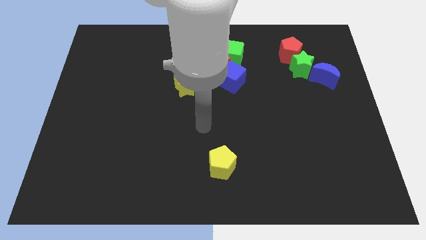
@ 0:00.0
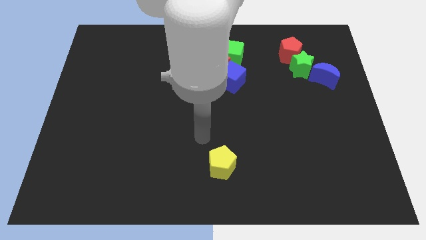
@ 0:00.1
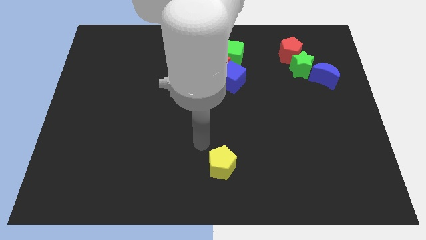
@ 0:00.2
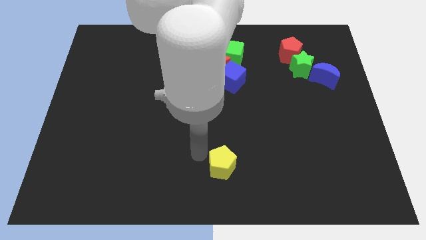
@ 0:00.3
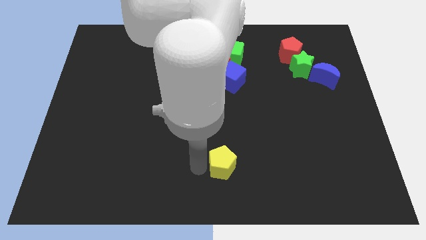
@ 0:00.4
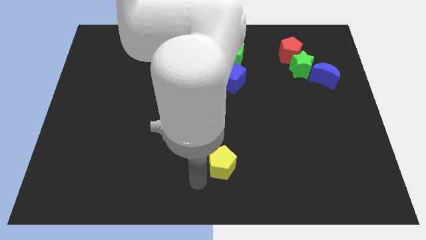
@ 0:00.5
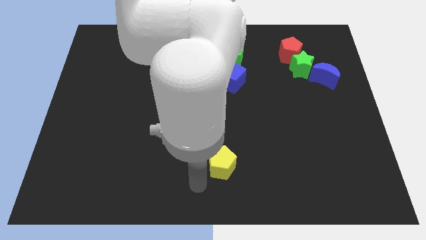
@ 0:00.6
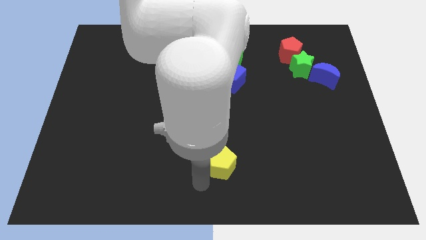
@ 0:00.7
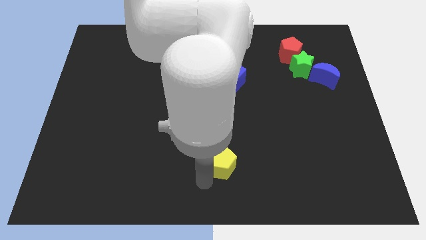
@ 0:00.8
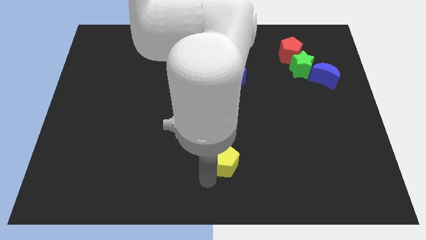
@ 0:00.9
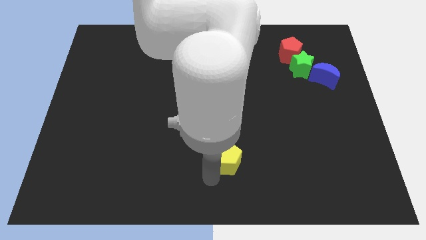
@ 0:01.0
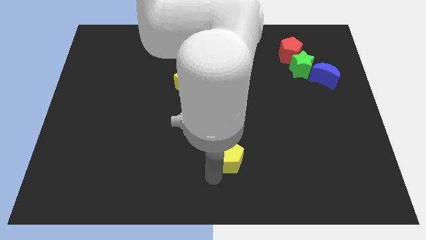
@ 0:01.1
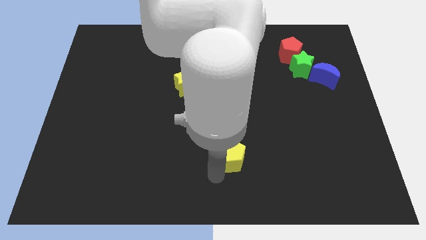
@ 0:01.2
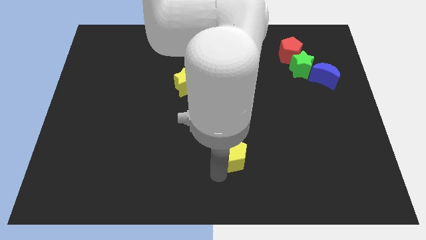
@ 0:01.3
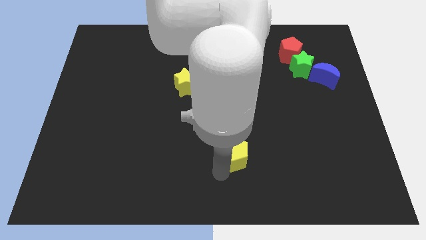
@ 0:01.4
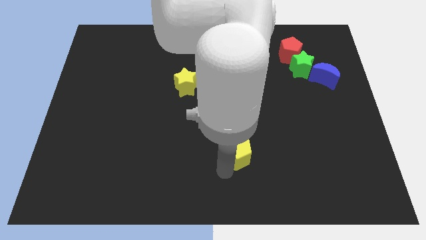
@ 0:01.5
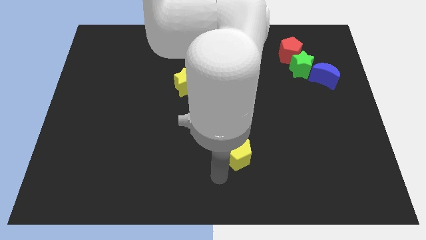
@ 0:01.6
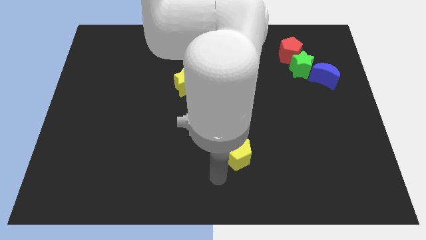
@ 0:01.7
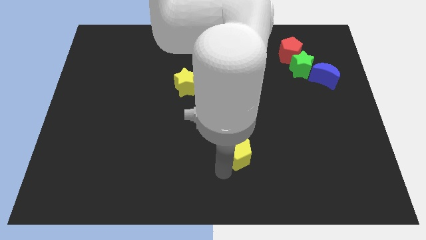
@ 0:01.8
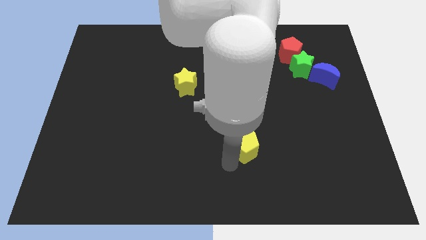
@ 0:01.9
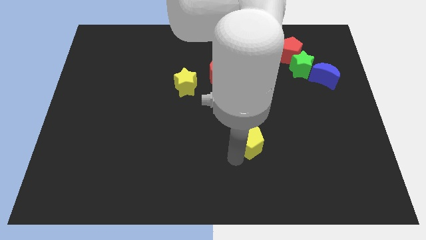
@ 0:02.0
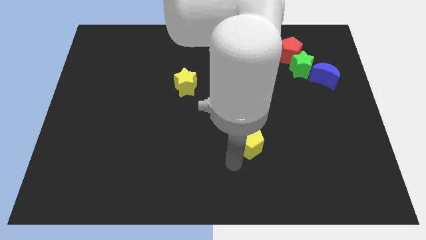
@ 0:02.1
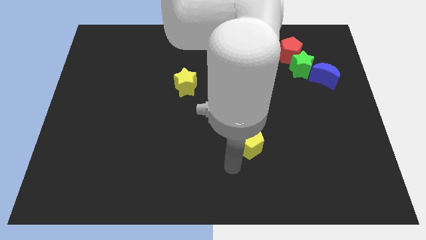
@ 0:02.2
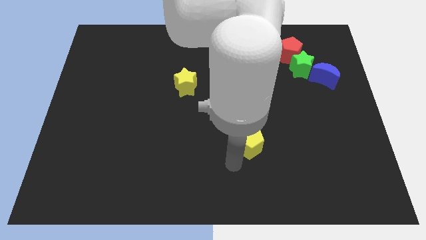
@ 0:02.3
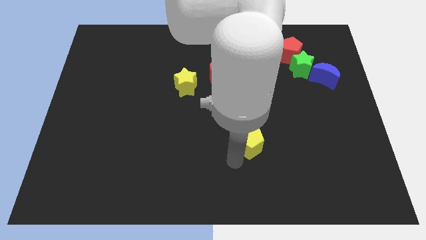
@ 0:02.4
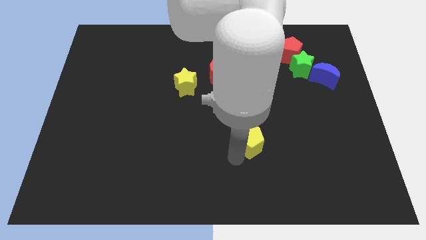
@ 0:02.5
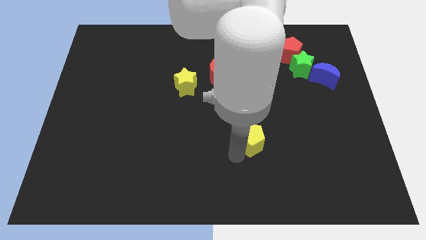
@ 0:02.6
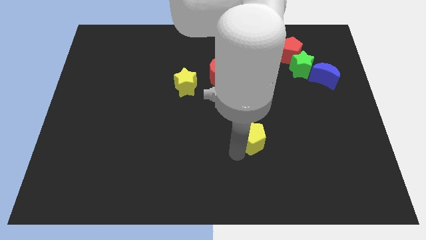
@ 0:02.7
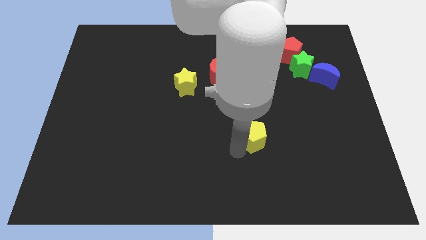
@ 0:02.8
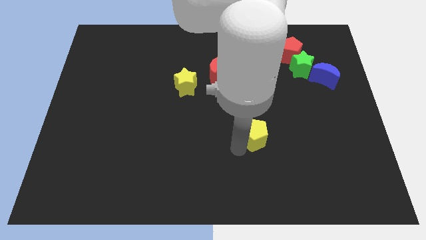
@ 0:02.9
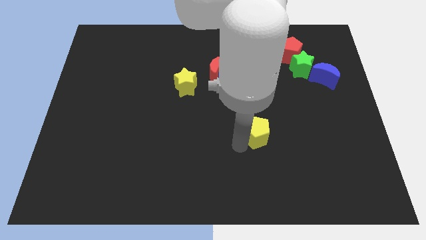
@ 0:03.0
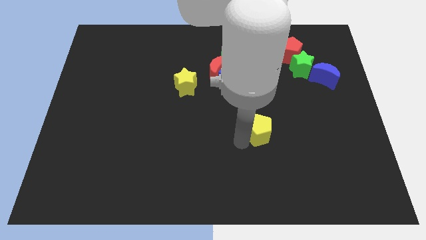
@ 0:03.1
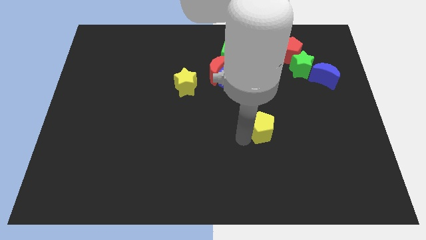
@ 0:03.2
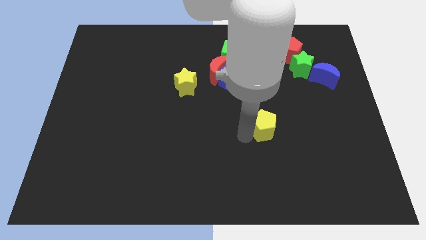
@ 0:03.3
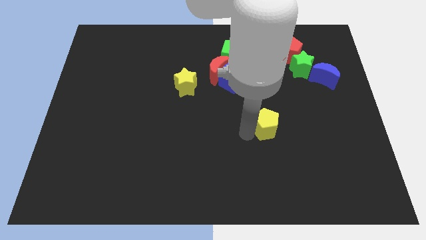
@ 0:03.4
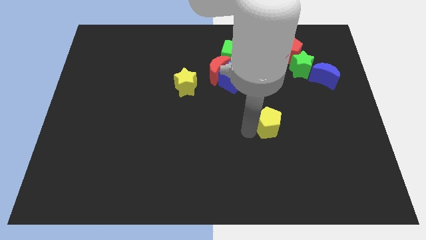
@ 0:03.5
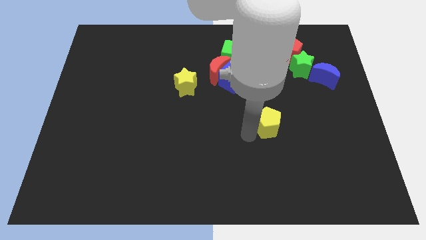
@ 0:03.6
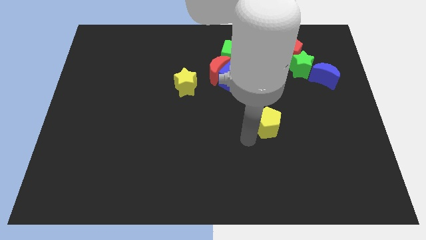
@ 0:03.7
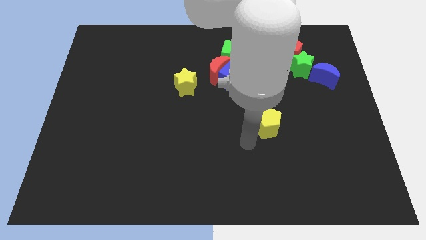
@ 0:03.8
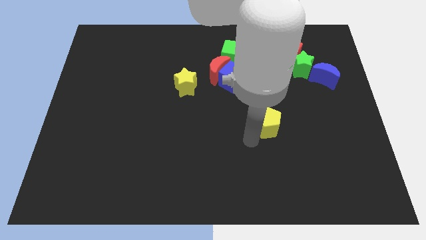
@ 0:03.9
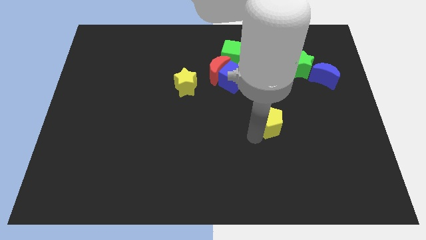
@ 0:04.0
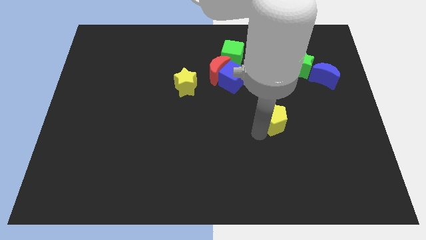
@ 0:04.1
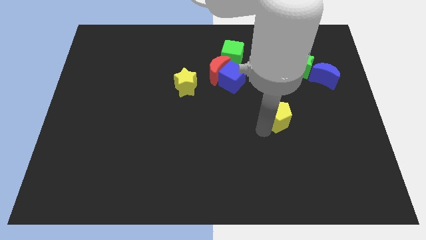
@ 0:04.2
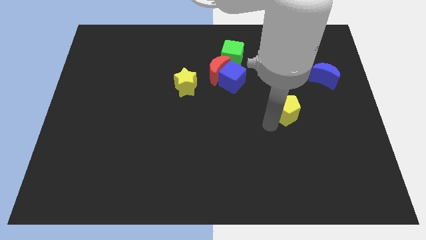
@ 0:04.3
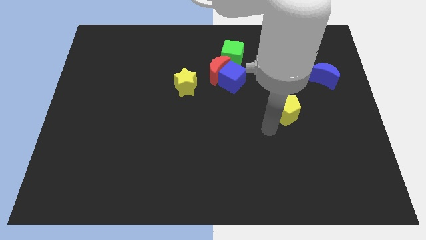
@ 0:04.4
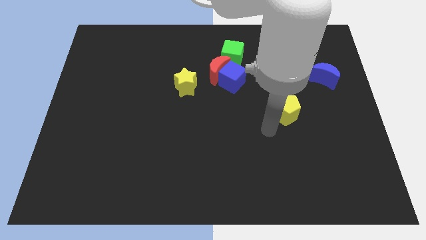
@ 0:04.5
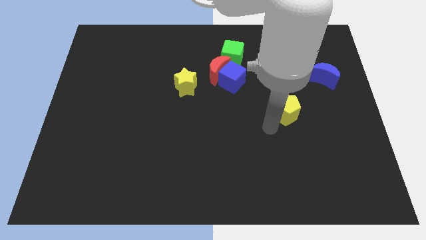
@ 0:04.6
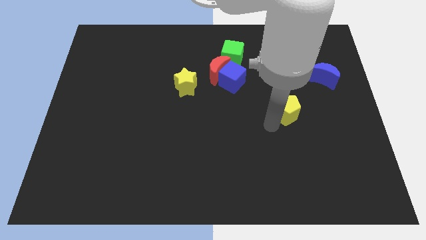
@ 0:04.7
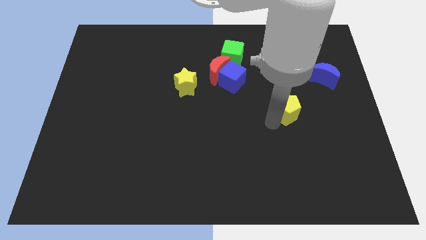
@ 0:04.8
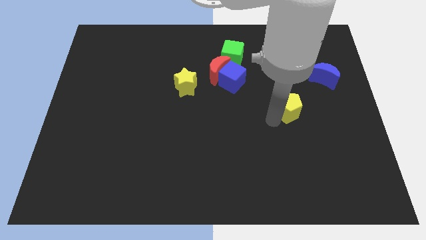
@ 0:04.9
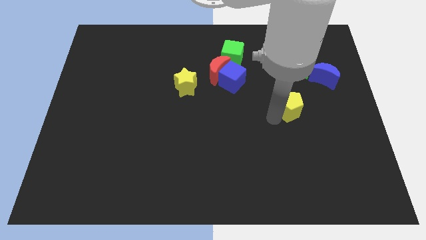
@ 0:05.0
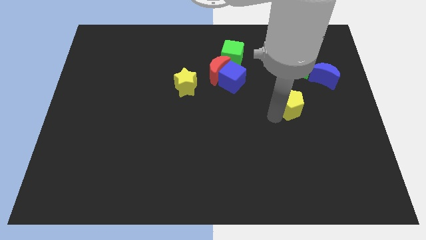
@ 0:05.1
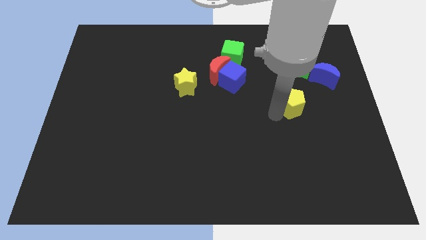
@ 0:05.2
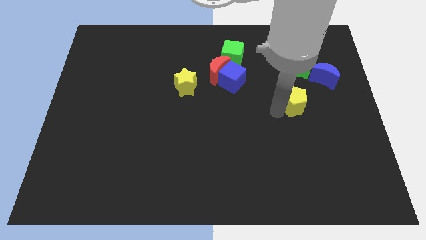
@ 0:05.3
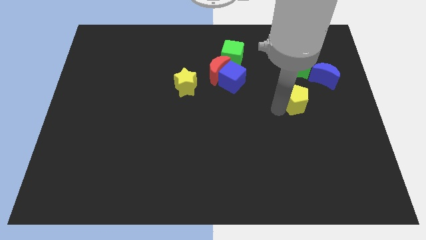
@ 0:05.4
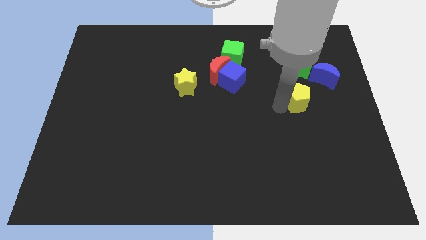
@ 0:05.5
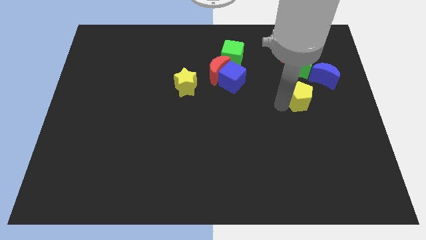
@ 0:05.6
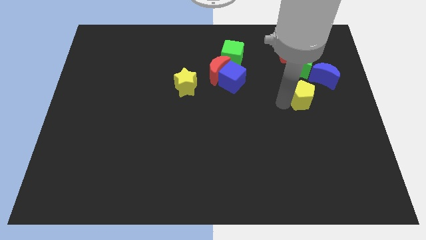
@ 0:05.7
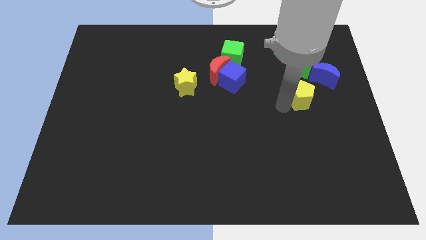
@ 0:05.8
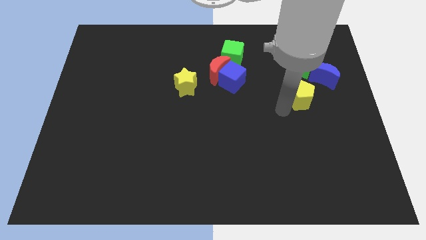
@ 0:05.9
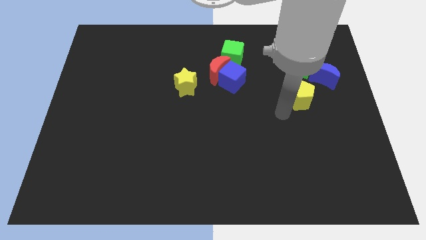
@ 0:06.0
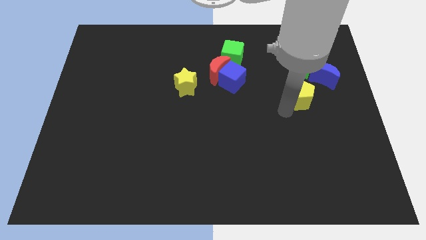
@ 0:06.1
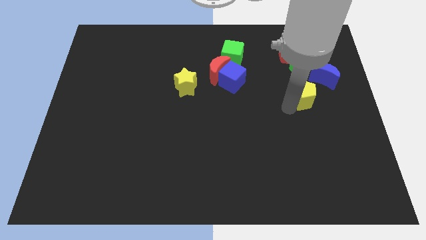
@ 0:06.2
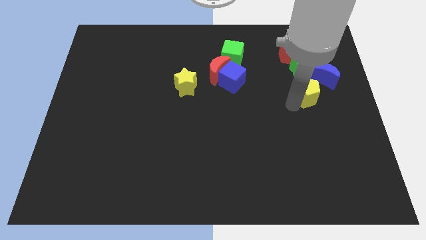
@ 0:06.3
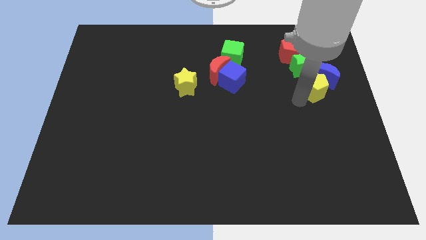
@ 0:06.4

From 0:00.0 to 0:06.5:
put the yellow pentagon next to the blue moon

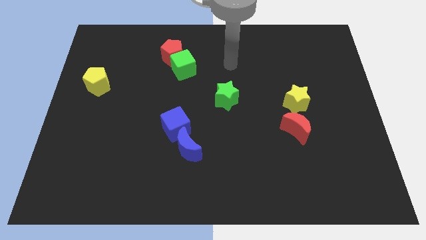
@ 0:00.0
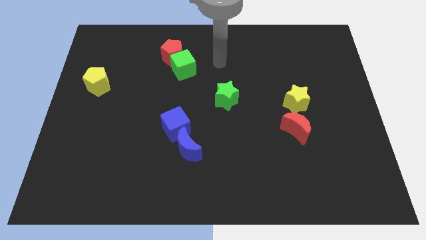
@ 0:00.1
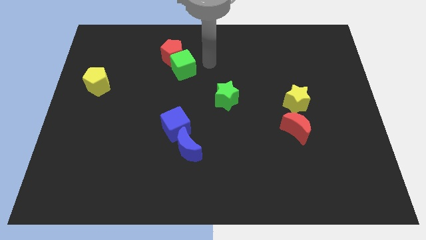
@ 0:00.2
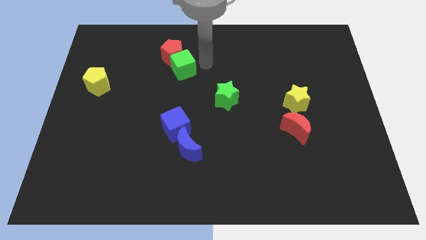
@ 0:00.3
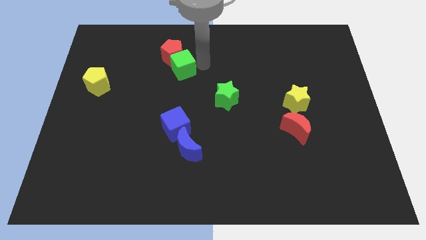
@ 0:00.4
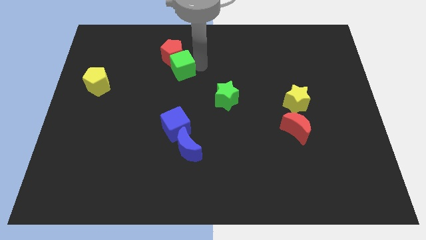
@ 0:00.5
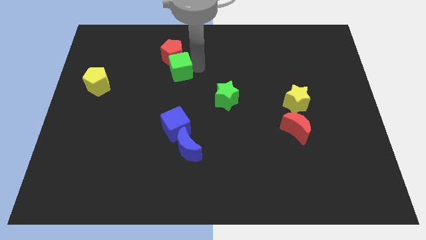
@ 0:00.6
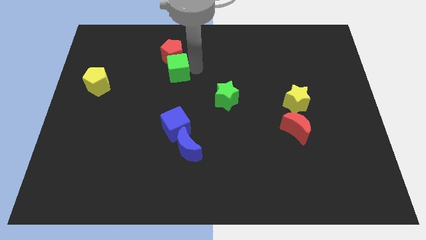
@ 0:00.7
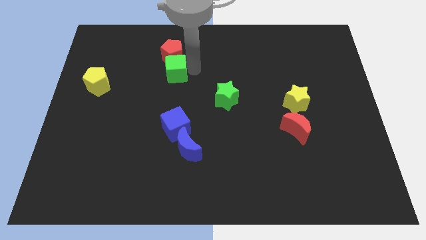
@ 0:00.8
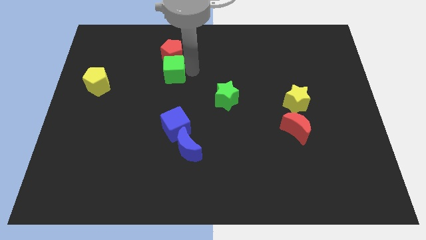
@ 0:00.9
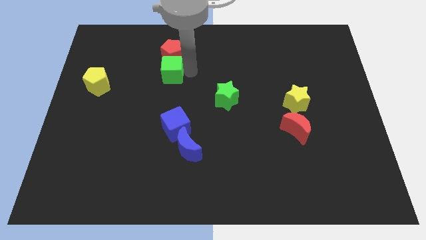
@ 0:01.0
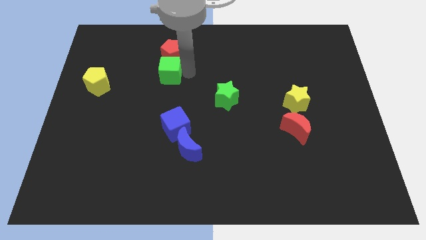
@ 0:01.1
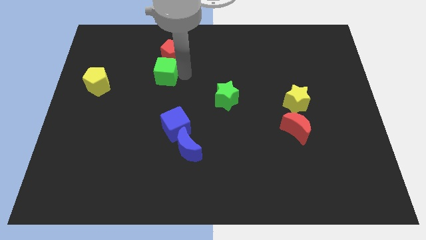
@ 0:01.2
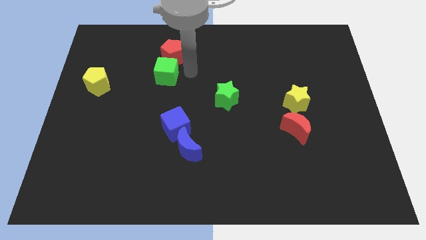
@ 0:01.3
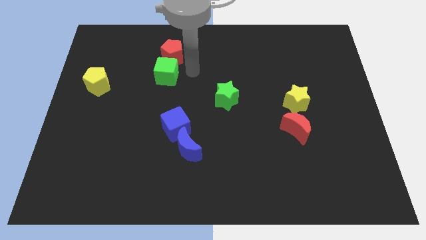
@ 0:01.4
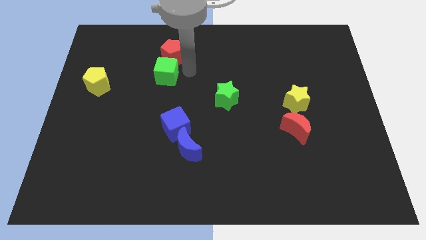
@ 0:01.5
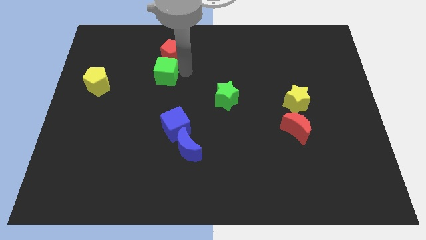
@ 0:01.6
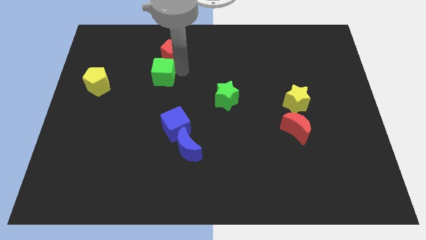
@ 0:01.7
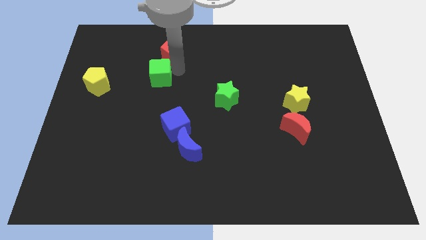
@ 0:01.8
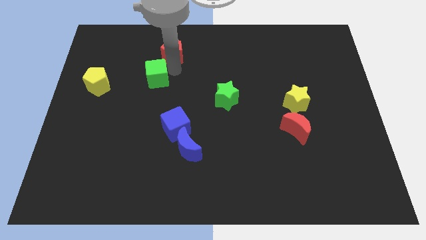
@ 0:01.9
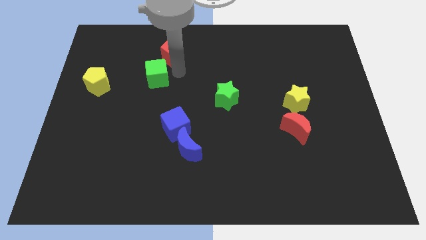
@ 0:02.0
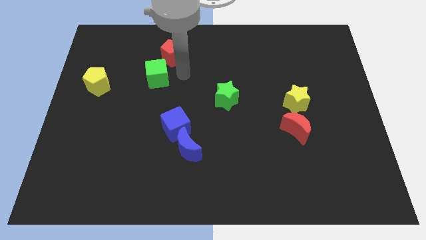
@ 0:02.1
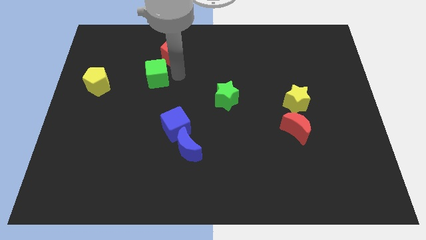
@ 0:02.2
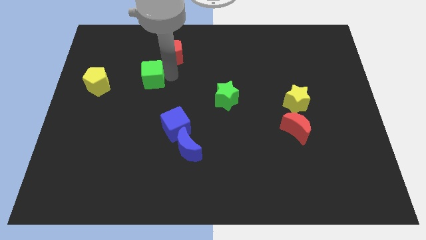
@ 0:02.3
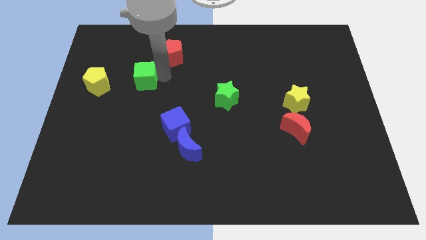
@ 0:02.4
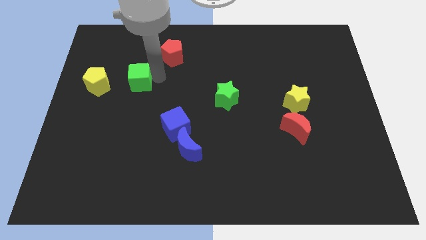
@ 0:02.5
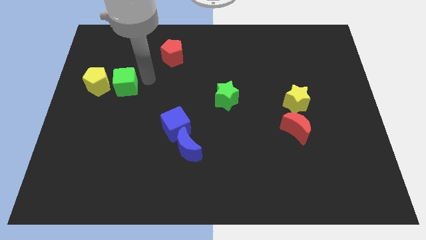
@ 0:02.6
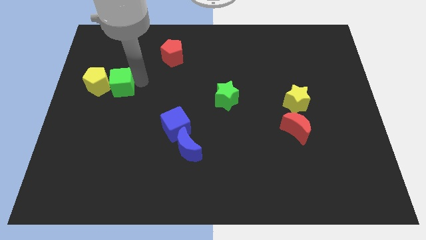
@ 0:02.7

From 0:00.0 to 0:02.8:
slide the green cube next to the yellow pentagon
